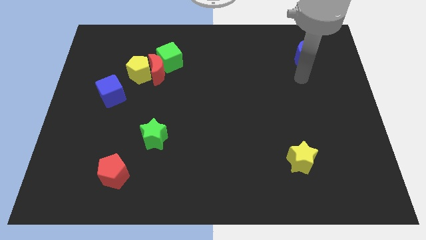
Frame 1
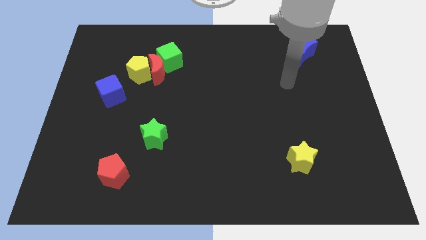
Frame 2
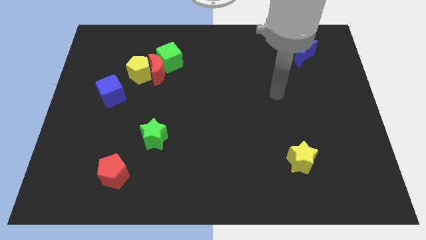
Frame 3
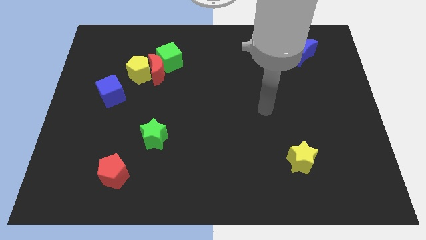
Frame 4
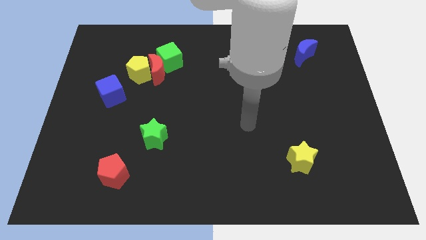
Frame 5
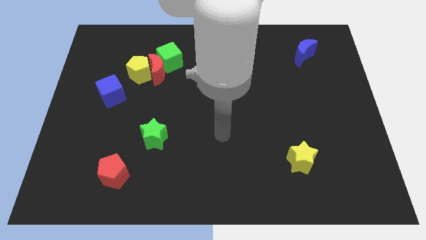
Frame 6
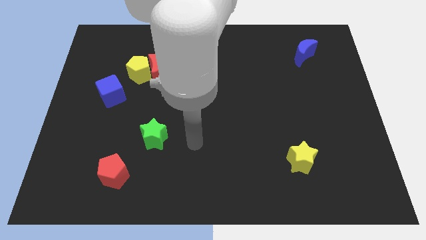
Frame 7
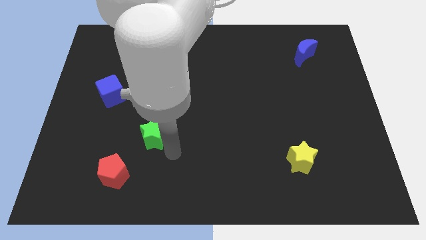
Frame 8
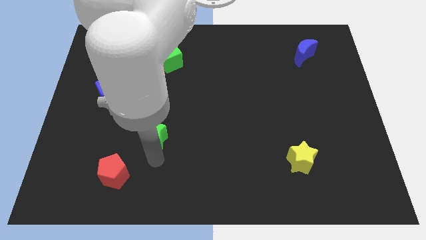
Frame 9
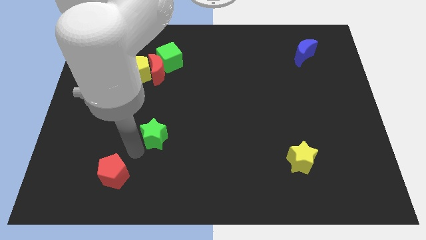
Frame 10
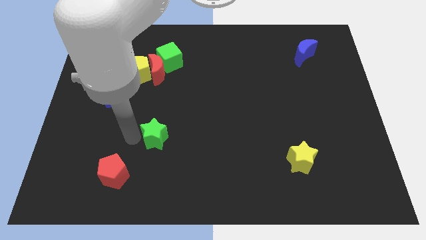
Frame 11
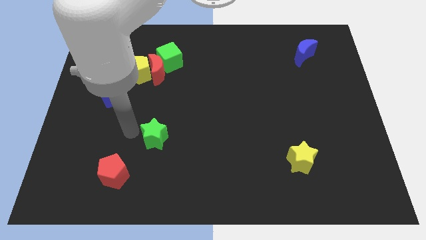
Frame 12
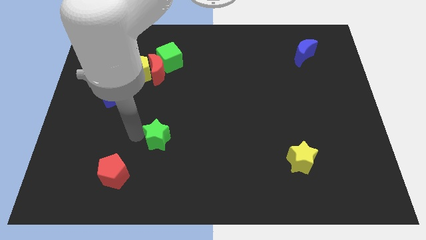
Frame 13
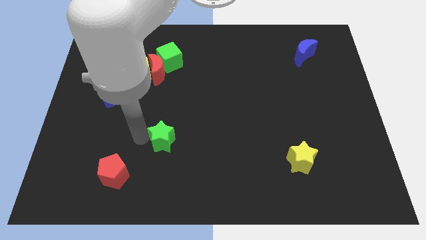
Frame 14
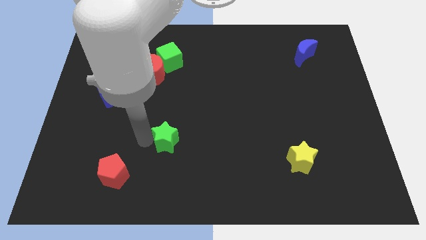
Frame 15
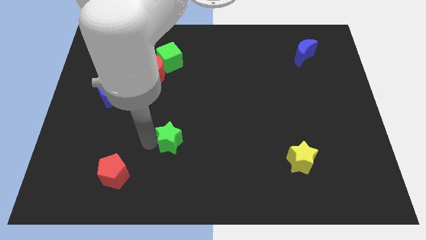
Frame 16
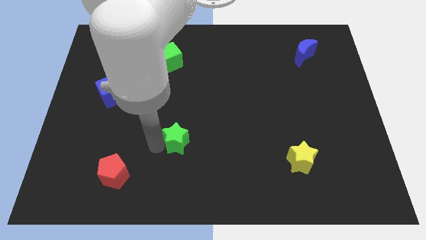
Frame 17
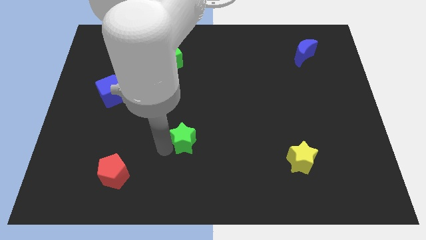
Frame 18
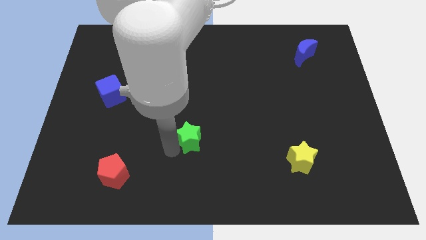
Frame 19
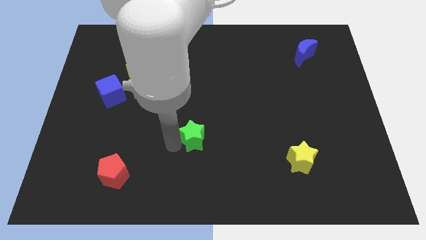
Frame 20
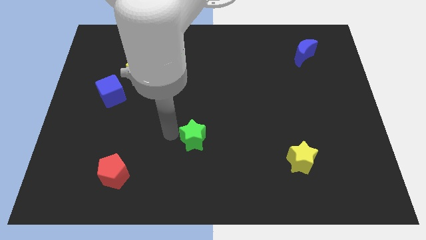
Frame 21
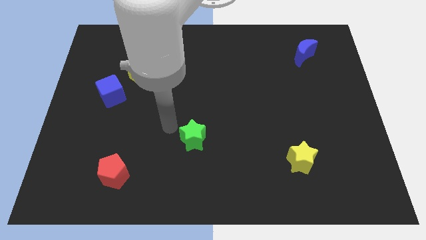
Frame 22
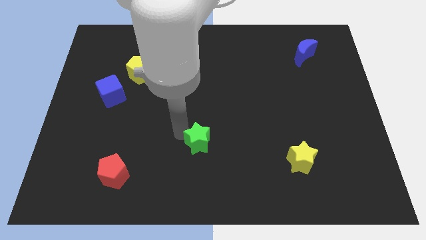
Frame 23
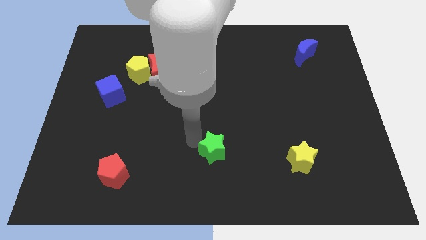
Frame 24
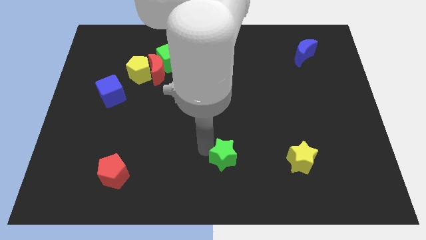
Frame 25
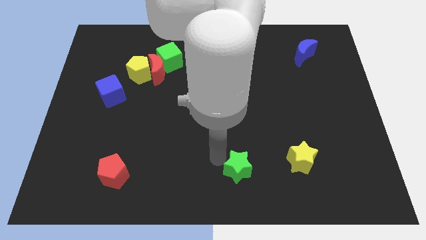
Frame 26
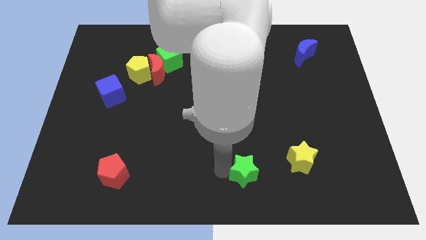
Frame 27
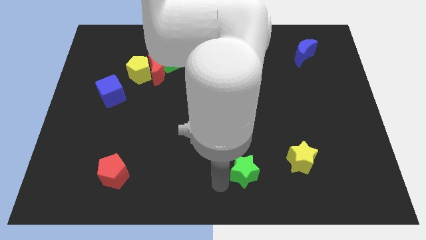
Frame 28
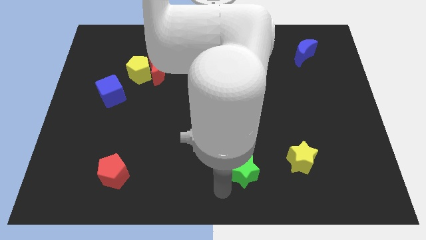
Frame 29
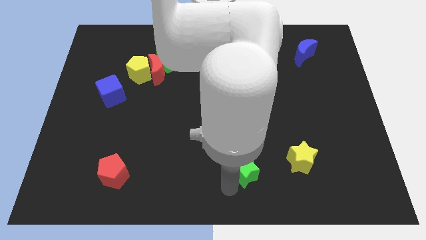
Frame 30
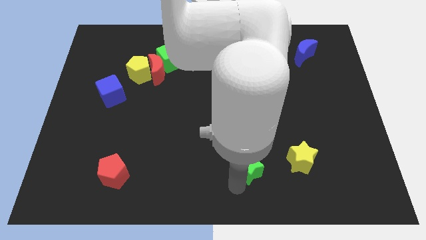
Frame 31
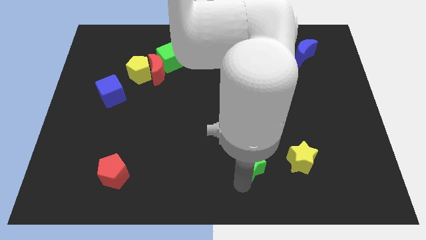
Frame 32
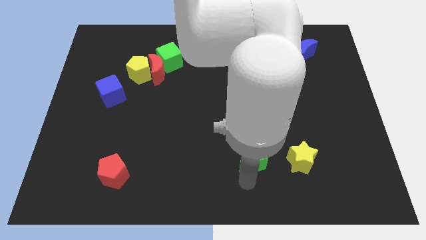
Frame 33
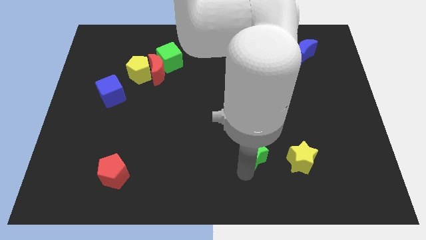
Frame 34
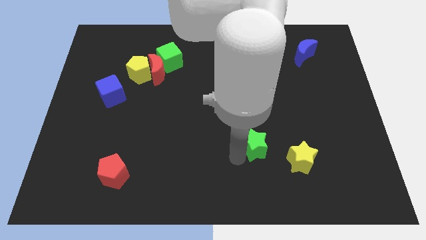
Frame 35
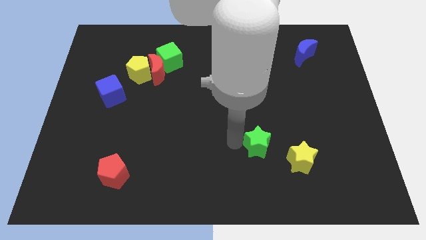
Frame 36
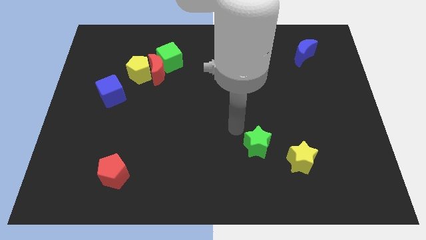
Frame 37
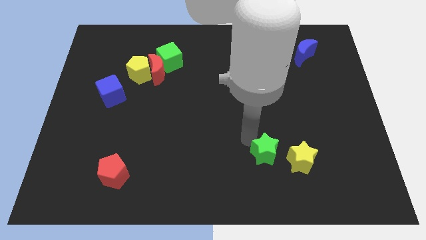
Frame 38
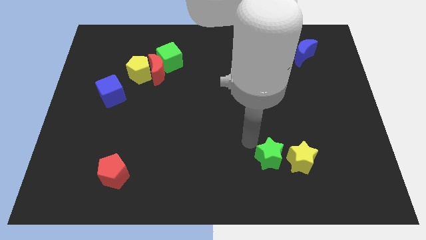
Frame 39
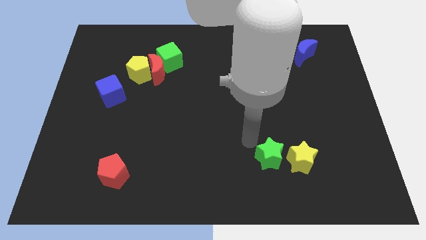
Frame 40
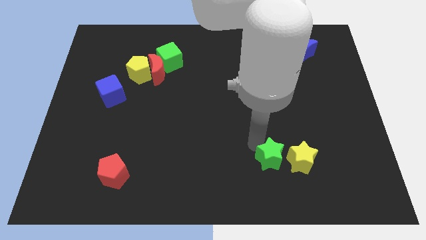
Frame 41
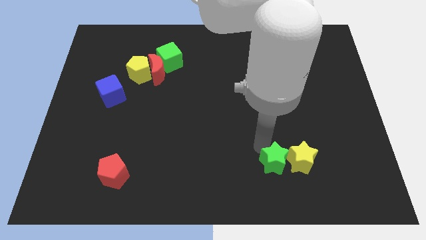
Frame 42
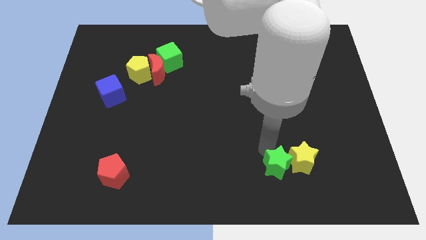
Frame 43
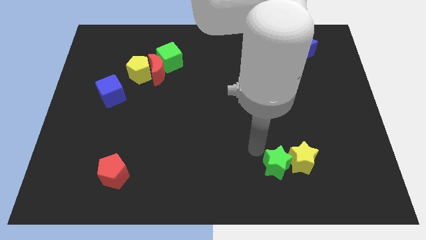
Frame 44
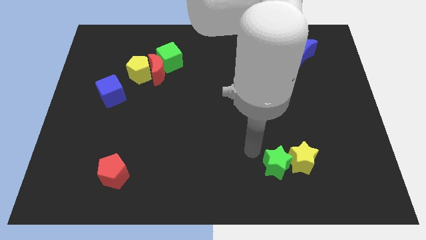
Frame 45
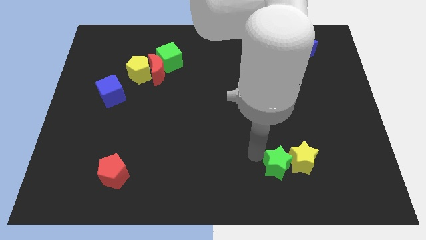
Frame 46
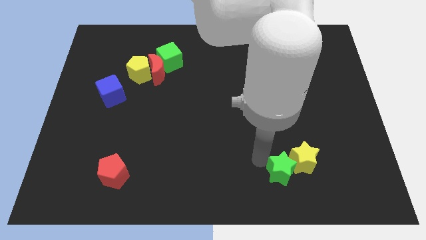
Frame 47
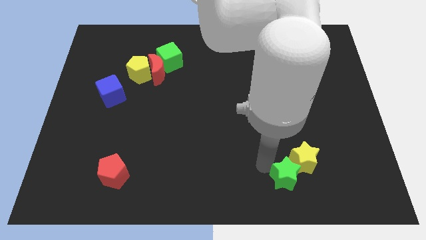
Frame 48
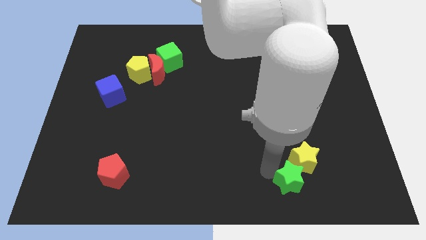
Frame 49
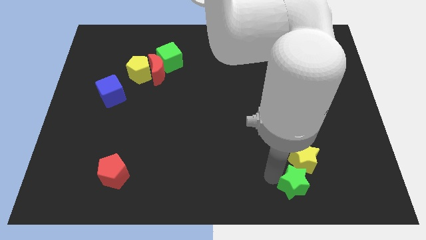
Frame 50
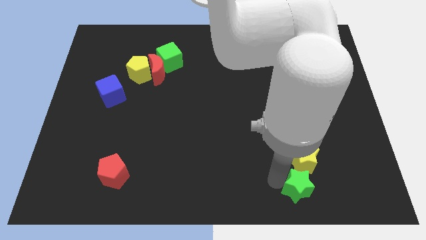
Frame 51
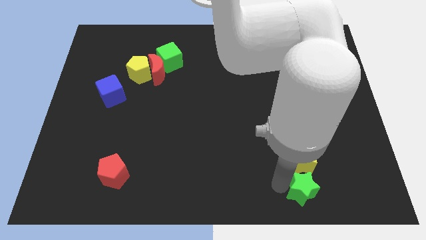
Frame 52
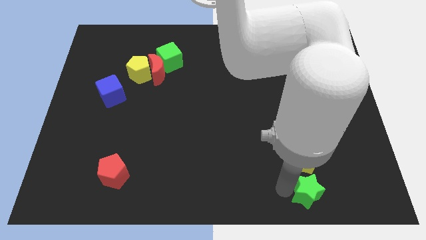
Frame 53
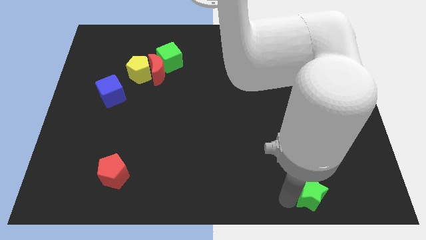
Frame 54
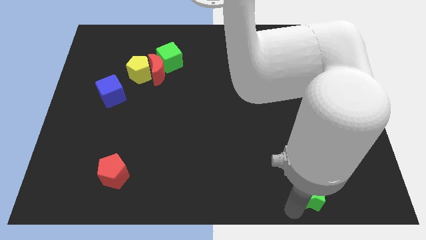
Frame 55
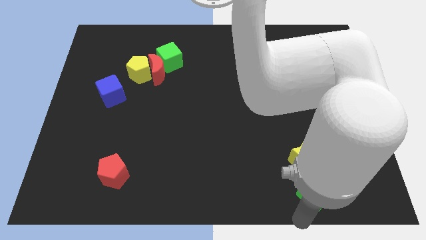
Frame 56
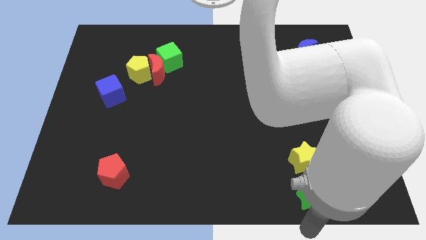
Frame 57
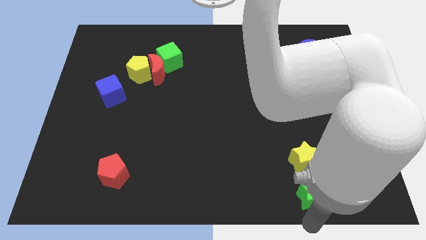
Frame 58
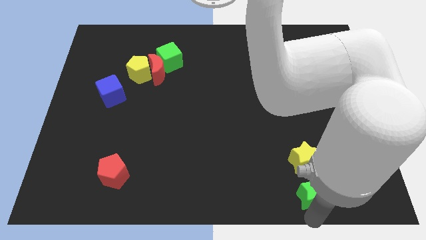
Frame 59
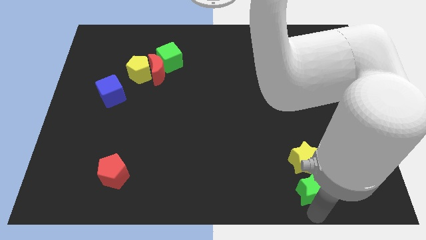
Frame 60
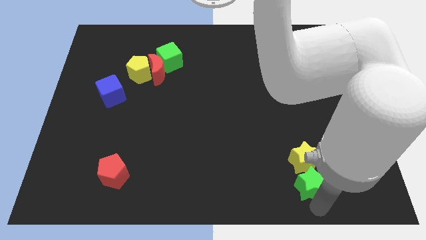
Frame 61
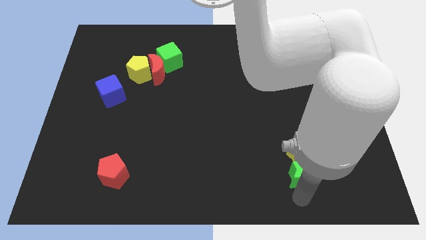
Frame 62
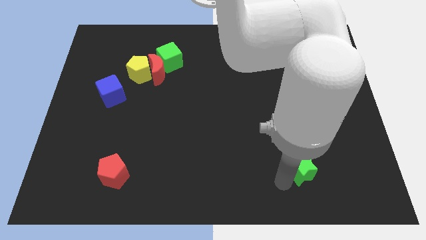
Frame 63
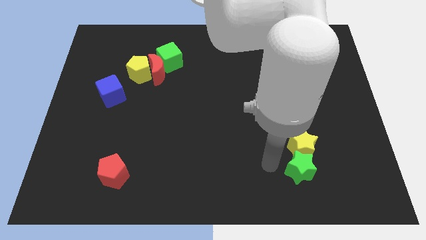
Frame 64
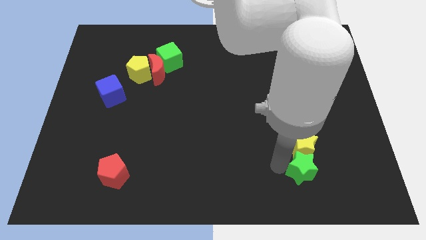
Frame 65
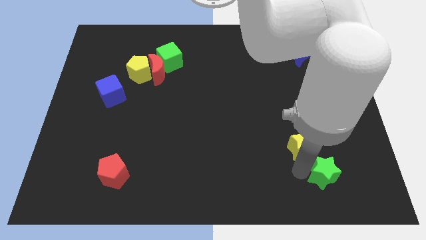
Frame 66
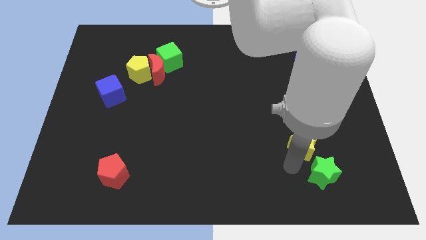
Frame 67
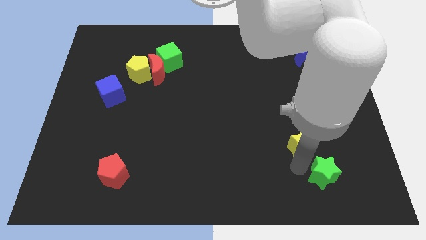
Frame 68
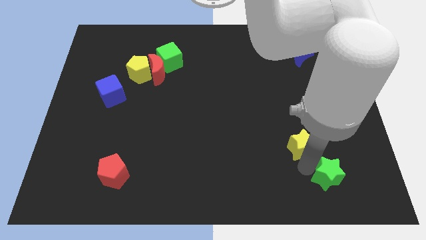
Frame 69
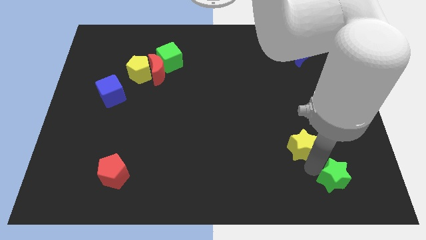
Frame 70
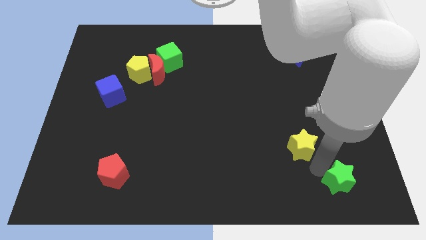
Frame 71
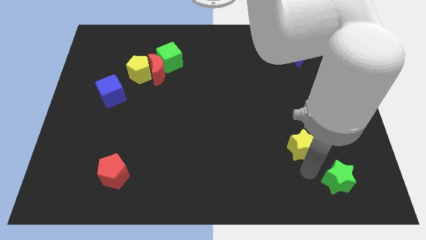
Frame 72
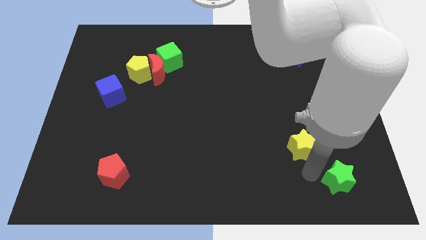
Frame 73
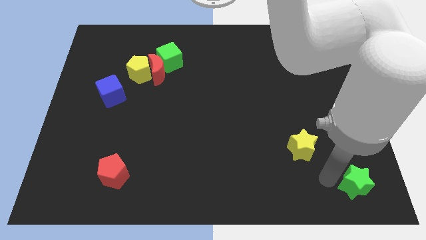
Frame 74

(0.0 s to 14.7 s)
move the green star to the bottom right of the board
